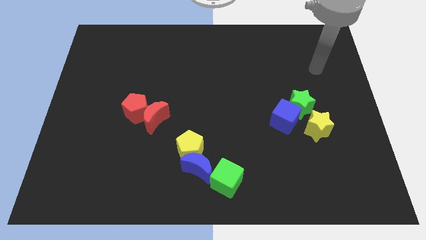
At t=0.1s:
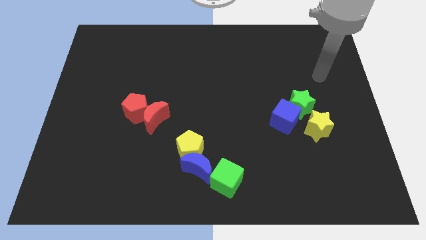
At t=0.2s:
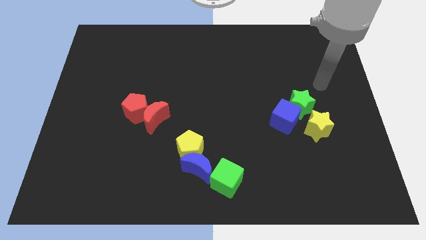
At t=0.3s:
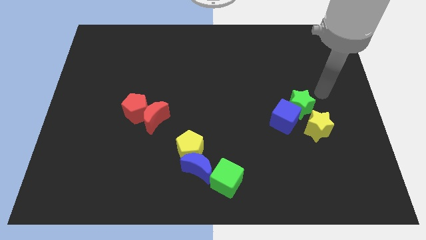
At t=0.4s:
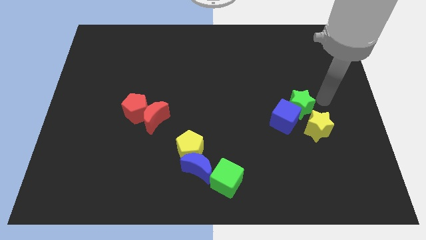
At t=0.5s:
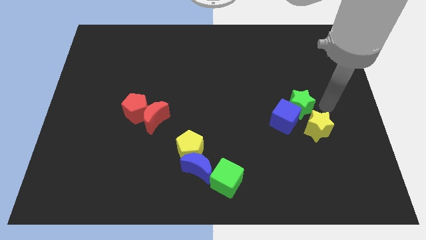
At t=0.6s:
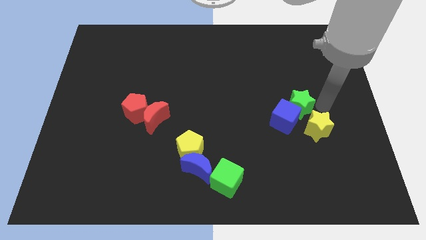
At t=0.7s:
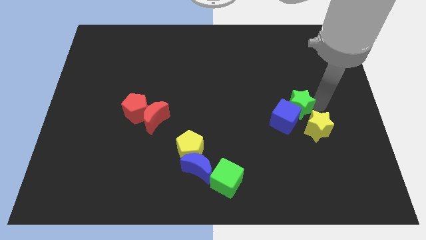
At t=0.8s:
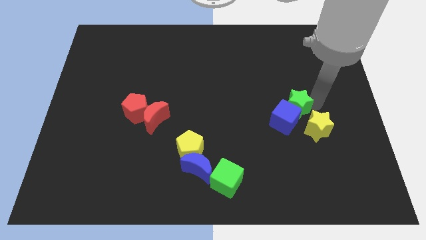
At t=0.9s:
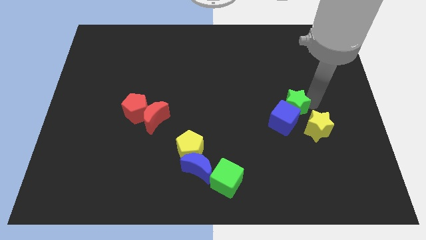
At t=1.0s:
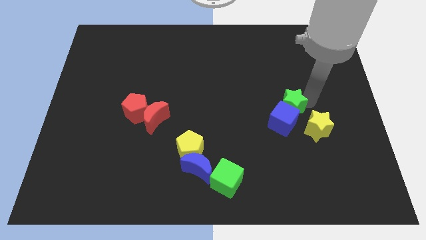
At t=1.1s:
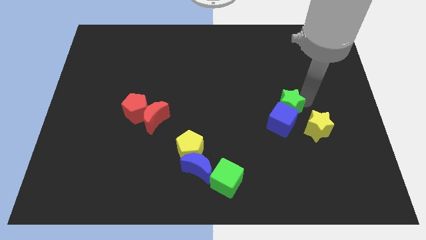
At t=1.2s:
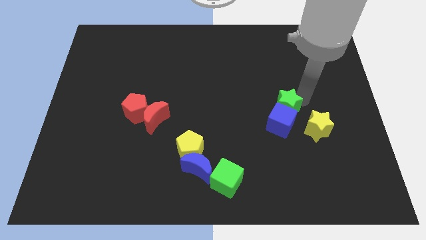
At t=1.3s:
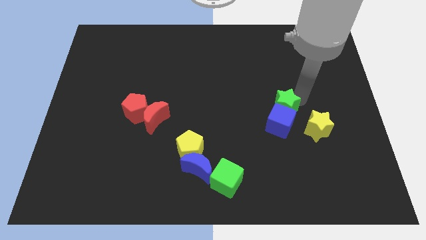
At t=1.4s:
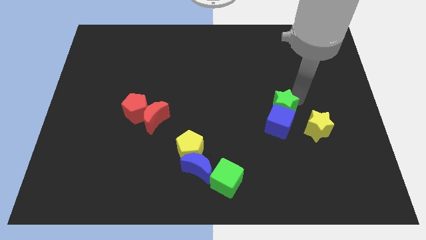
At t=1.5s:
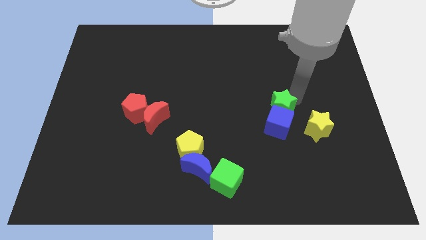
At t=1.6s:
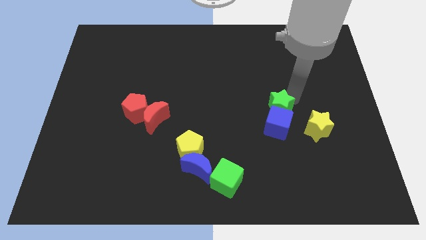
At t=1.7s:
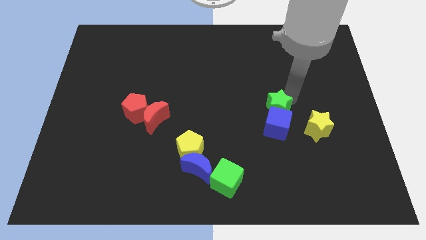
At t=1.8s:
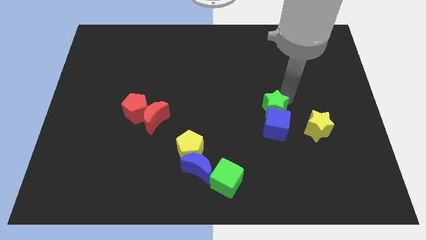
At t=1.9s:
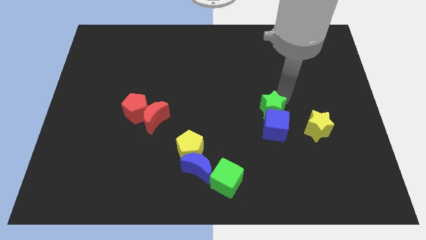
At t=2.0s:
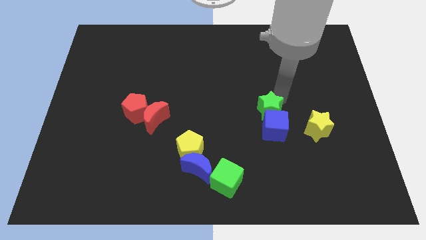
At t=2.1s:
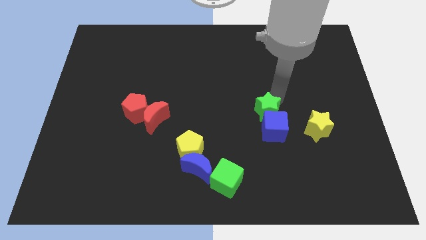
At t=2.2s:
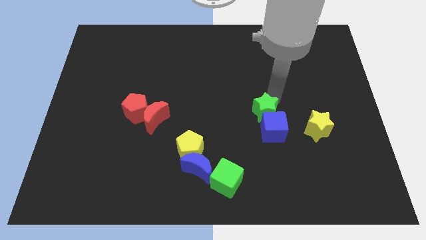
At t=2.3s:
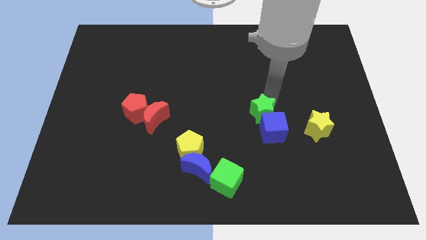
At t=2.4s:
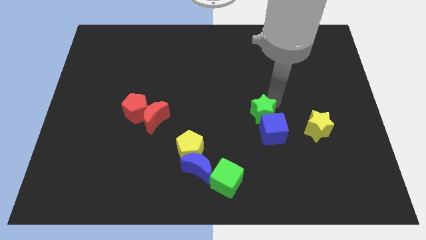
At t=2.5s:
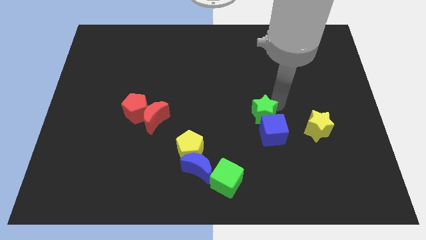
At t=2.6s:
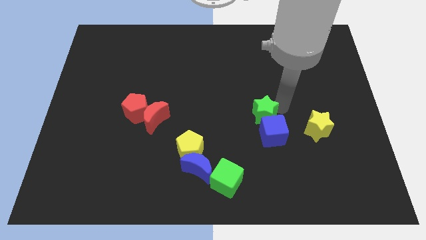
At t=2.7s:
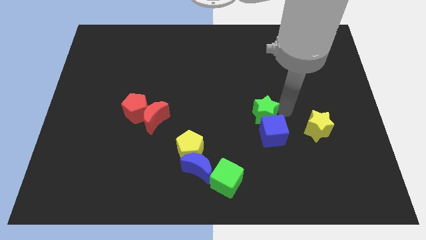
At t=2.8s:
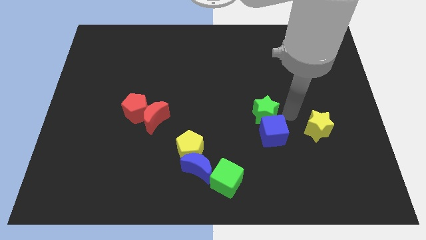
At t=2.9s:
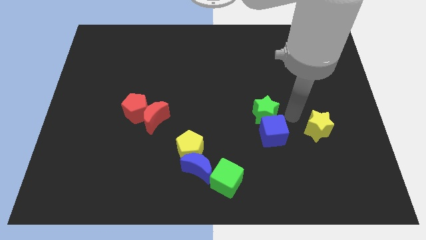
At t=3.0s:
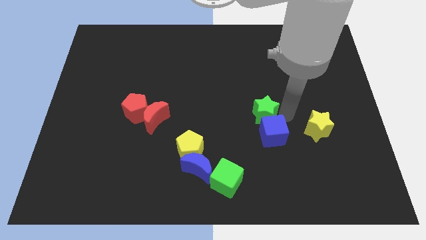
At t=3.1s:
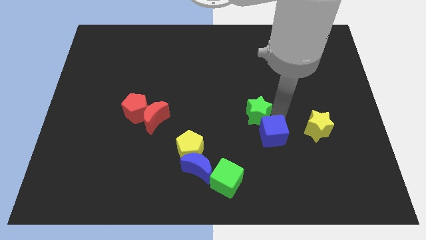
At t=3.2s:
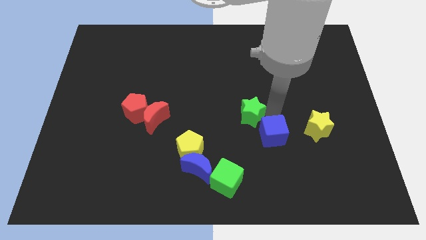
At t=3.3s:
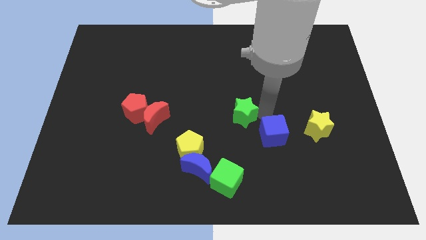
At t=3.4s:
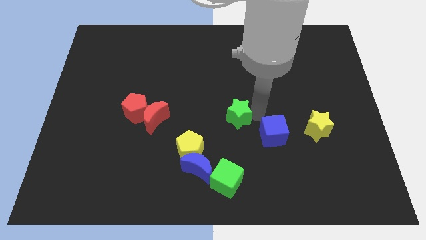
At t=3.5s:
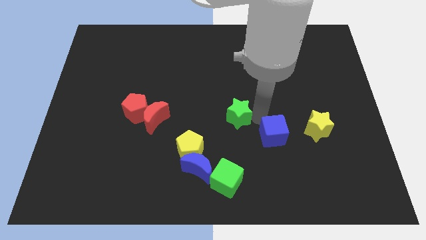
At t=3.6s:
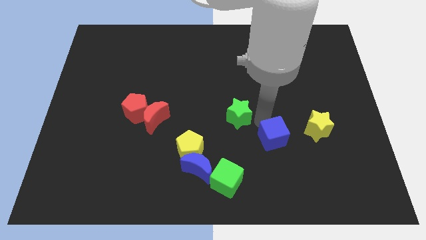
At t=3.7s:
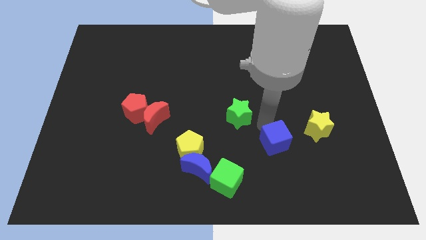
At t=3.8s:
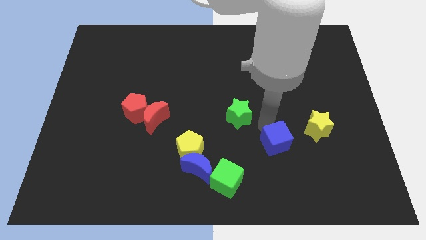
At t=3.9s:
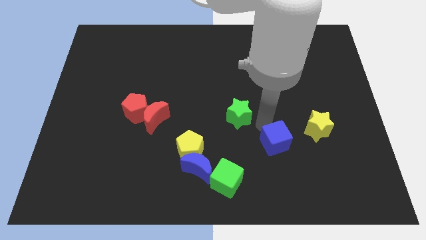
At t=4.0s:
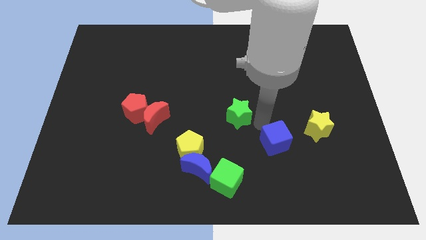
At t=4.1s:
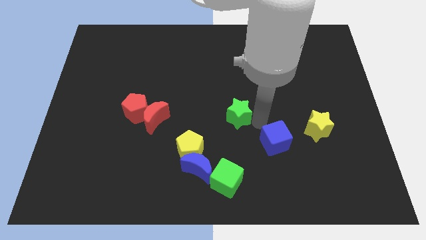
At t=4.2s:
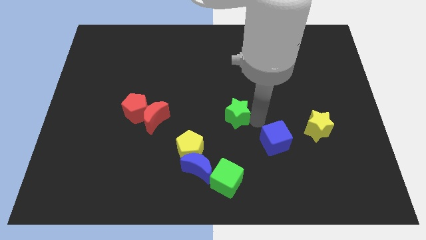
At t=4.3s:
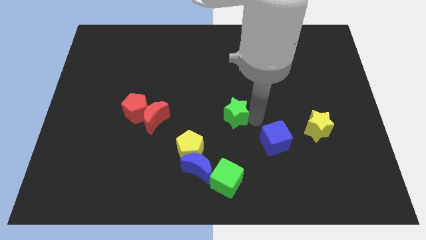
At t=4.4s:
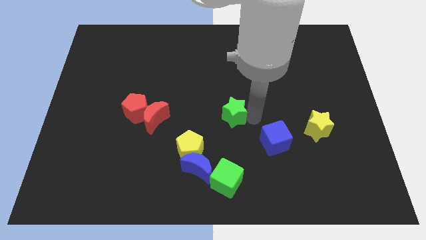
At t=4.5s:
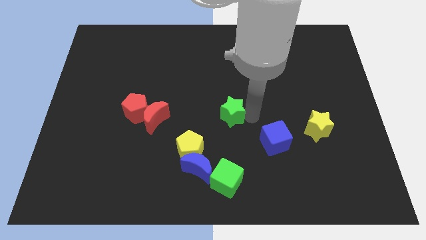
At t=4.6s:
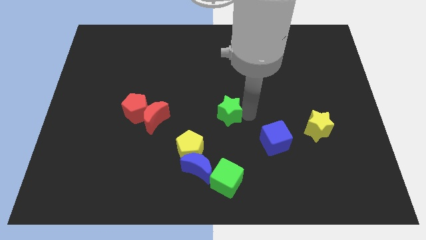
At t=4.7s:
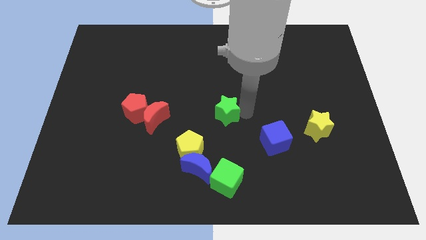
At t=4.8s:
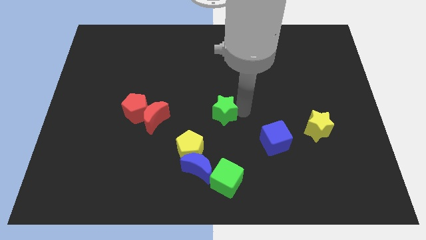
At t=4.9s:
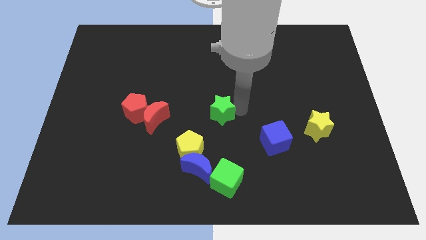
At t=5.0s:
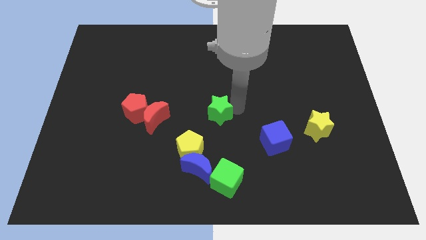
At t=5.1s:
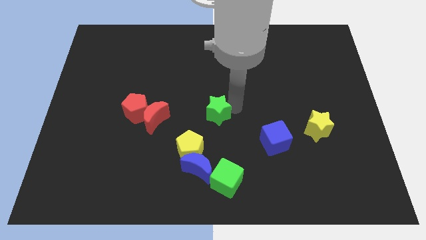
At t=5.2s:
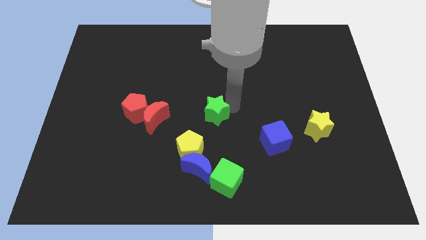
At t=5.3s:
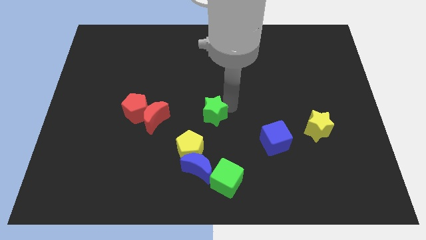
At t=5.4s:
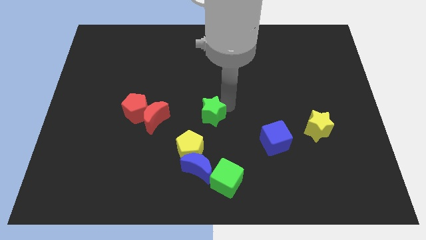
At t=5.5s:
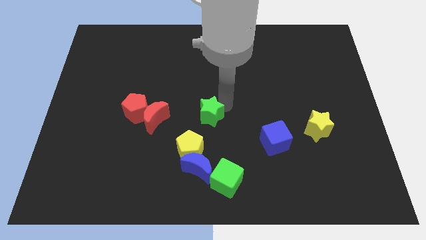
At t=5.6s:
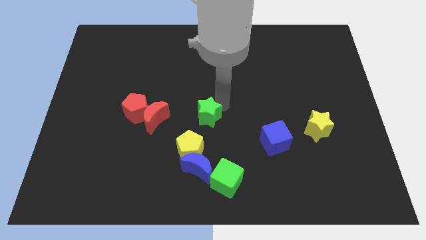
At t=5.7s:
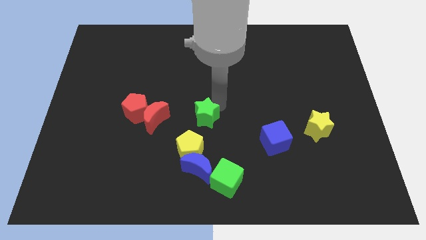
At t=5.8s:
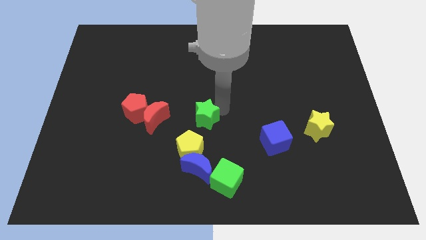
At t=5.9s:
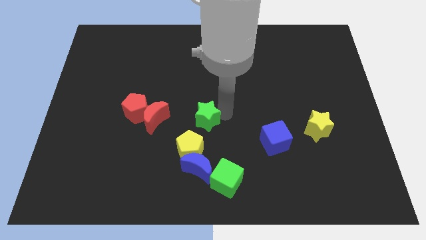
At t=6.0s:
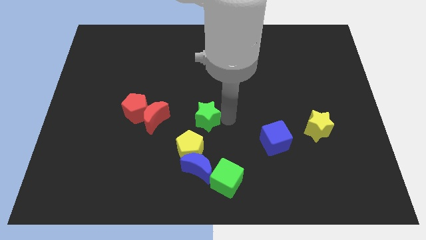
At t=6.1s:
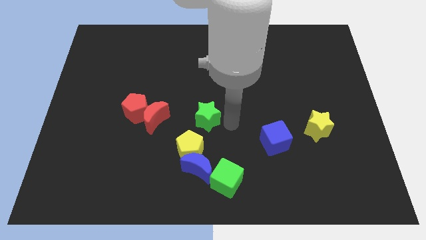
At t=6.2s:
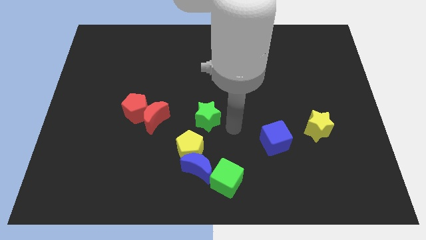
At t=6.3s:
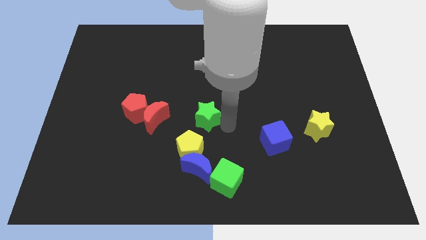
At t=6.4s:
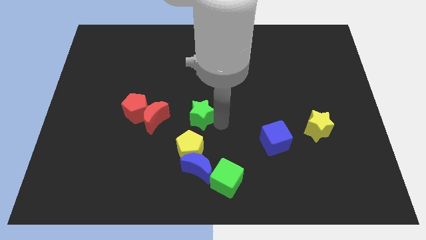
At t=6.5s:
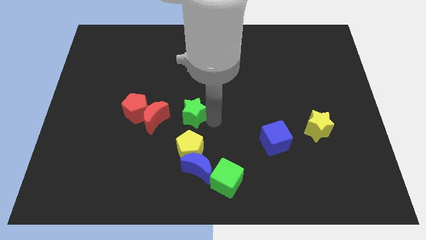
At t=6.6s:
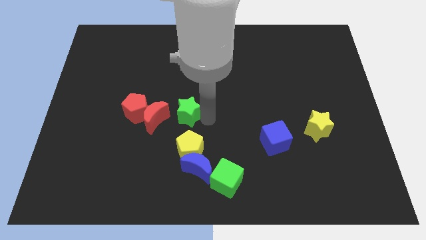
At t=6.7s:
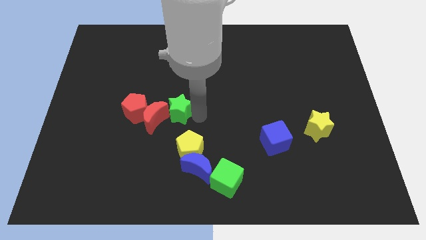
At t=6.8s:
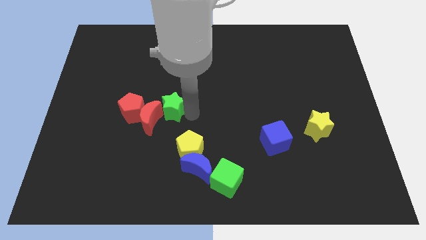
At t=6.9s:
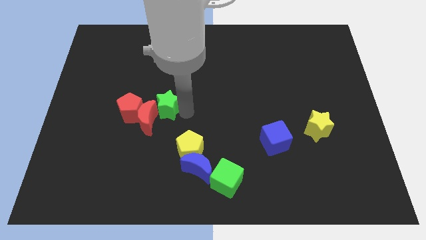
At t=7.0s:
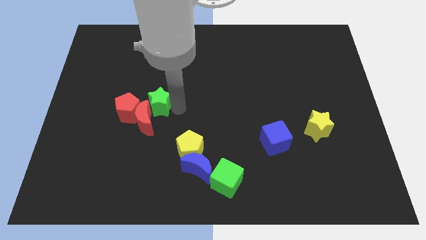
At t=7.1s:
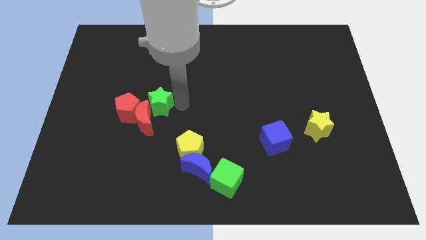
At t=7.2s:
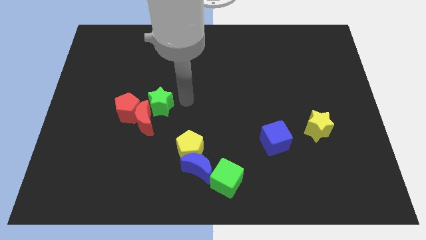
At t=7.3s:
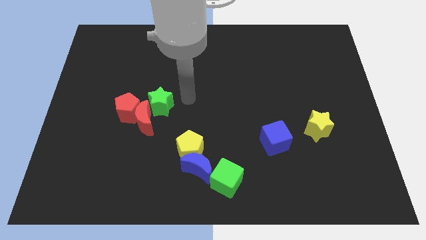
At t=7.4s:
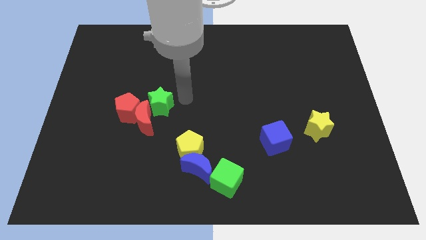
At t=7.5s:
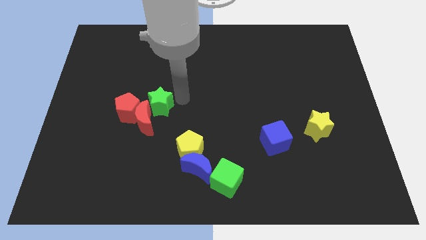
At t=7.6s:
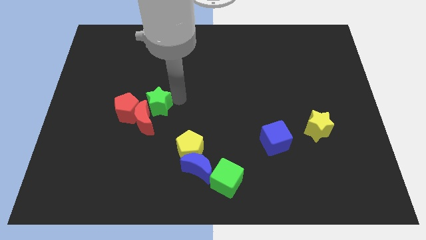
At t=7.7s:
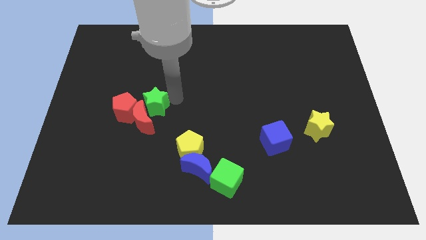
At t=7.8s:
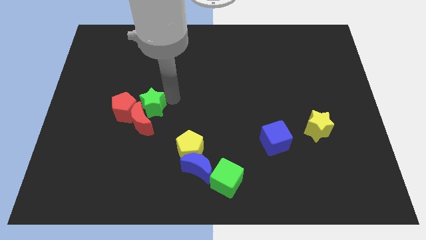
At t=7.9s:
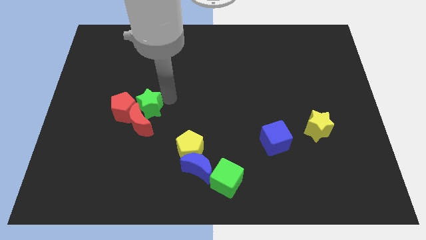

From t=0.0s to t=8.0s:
slide the green star to the red pentagon
